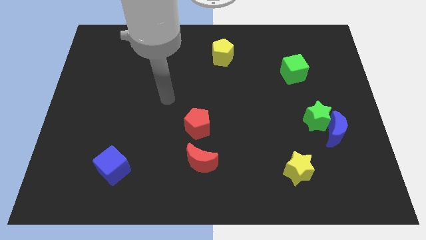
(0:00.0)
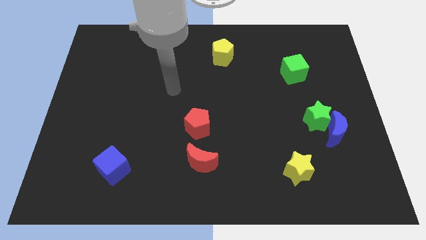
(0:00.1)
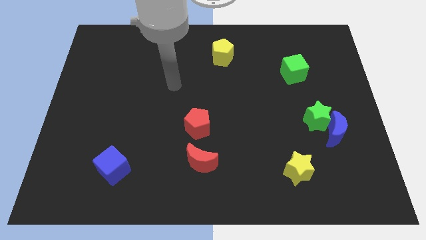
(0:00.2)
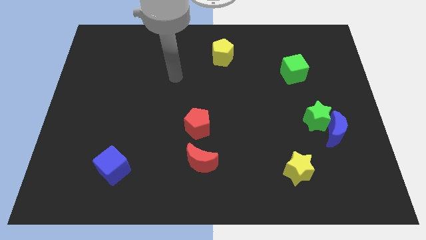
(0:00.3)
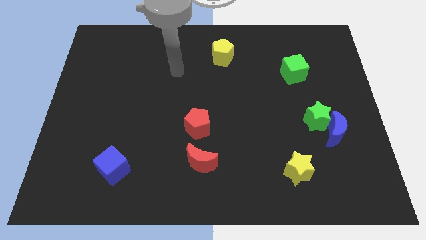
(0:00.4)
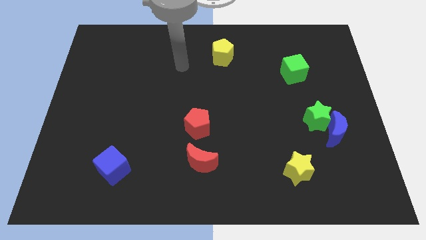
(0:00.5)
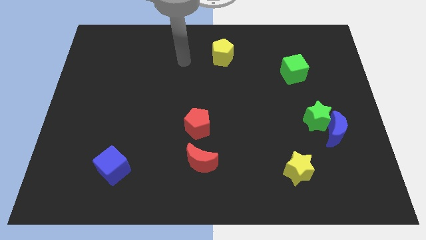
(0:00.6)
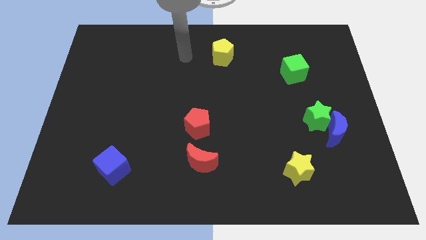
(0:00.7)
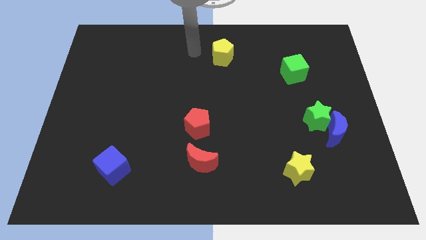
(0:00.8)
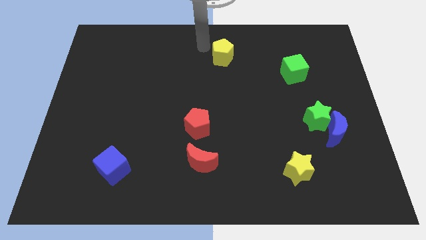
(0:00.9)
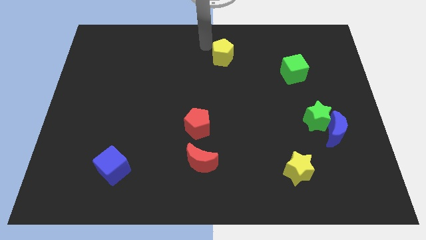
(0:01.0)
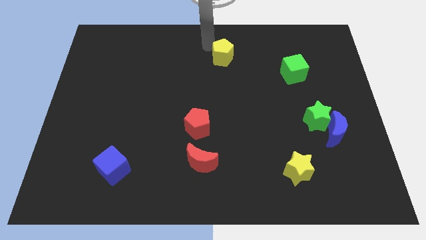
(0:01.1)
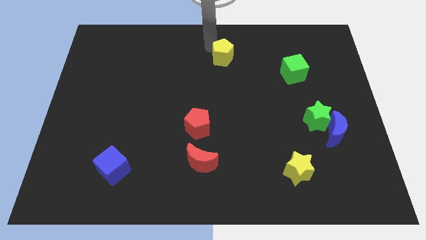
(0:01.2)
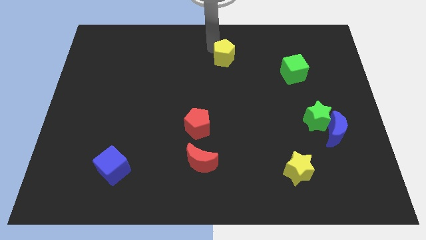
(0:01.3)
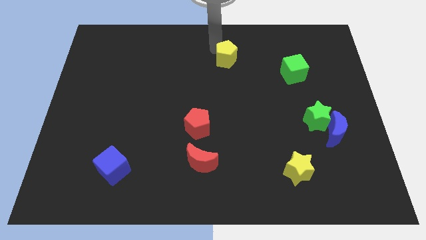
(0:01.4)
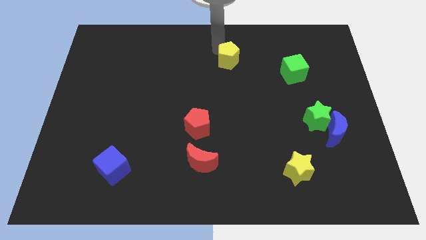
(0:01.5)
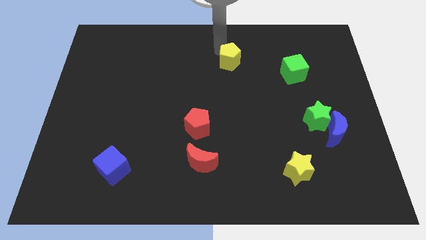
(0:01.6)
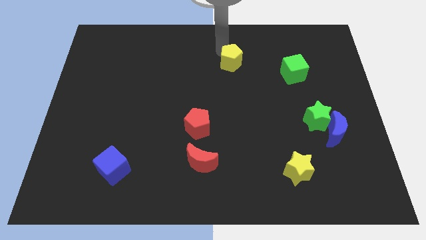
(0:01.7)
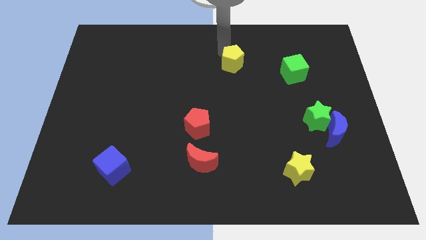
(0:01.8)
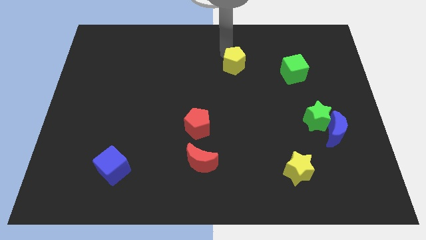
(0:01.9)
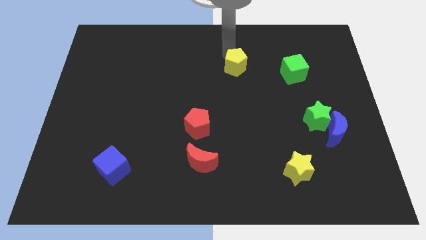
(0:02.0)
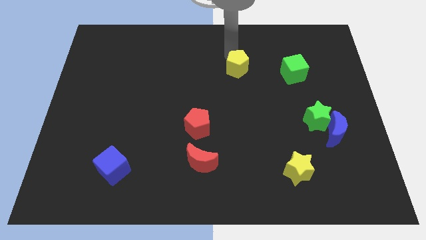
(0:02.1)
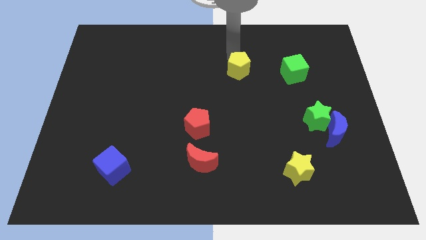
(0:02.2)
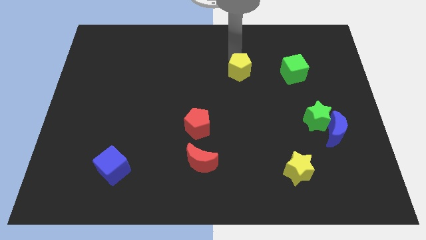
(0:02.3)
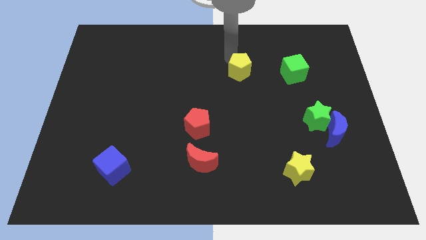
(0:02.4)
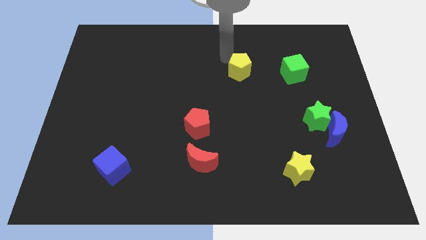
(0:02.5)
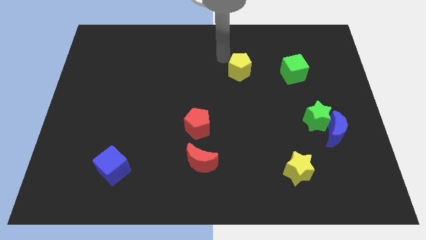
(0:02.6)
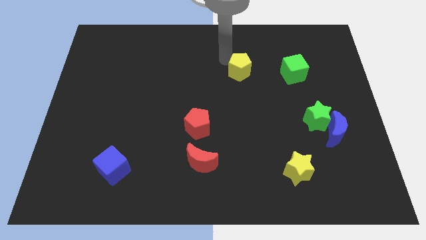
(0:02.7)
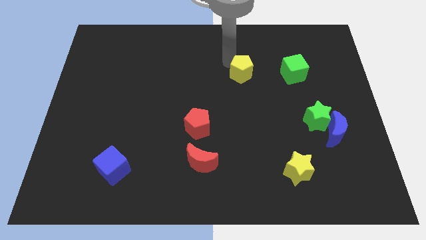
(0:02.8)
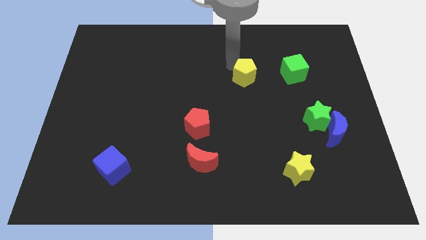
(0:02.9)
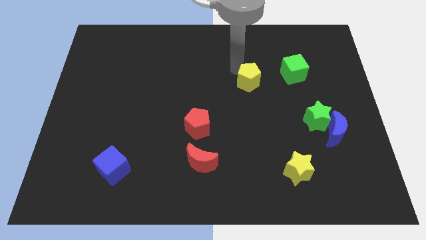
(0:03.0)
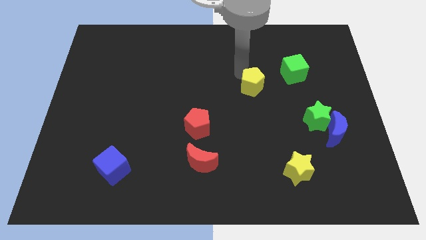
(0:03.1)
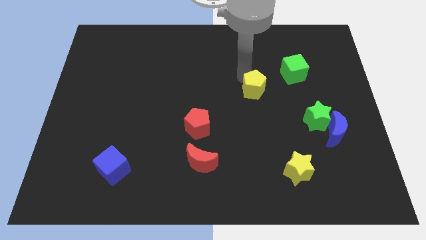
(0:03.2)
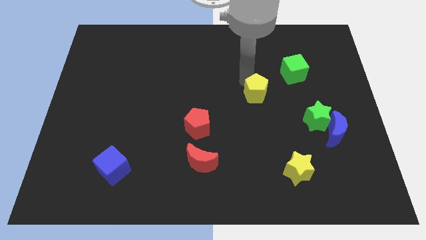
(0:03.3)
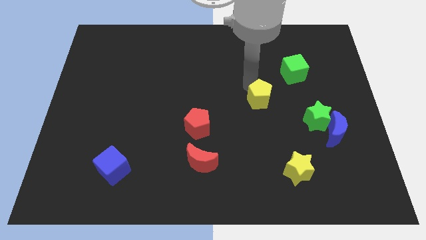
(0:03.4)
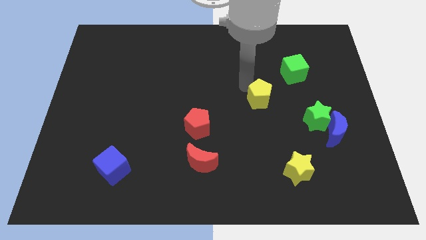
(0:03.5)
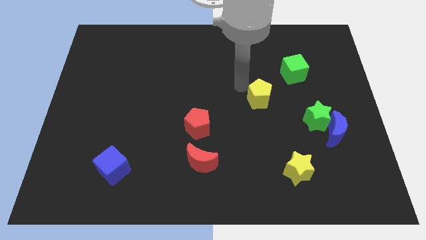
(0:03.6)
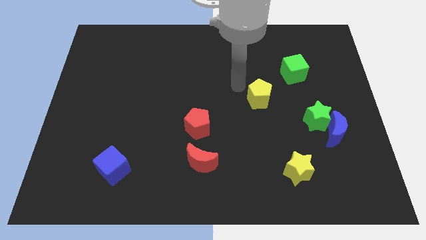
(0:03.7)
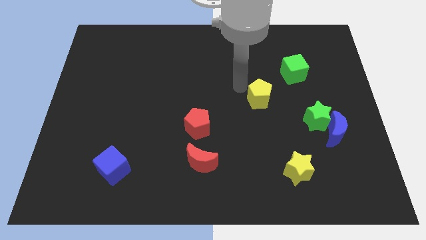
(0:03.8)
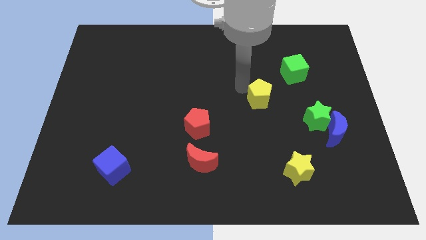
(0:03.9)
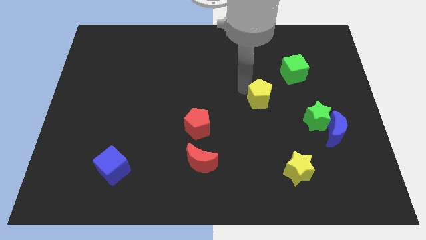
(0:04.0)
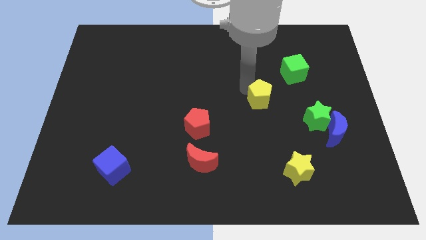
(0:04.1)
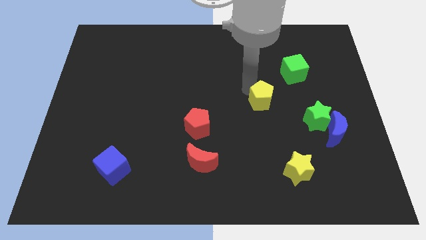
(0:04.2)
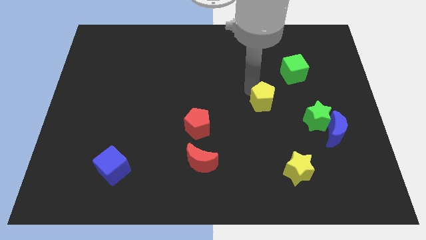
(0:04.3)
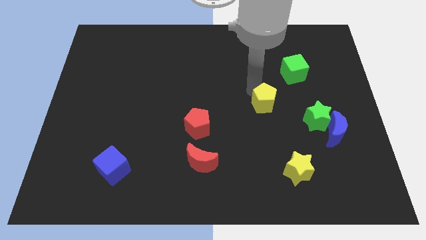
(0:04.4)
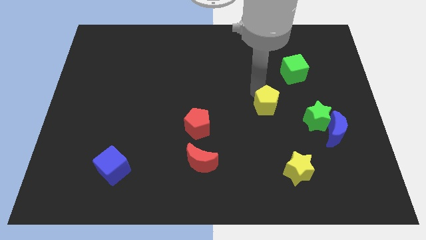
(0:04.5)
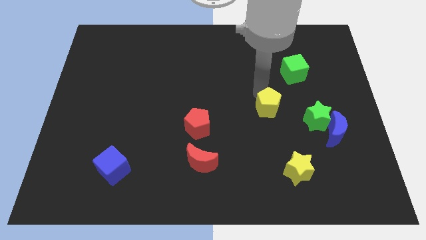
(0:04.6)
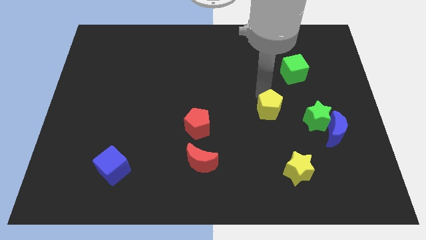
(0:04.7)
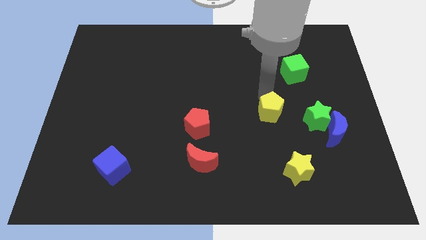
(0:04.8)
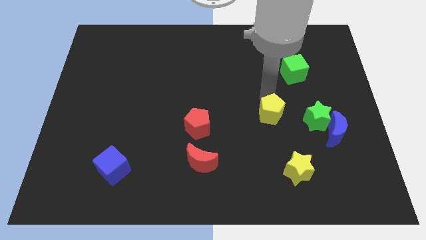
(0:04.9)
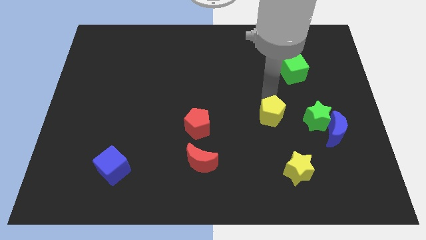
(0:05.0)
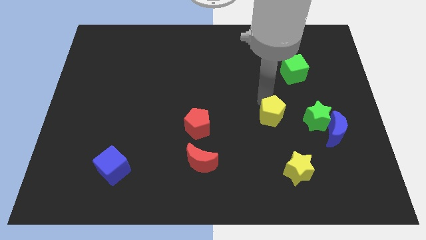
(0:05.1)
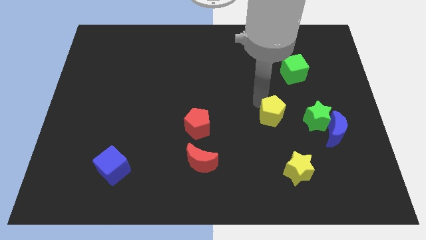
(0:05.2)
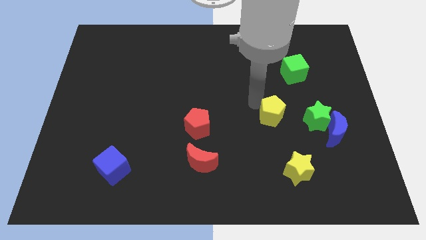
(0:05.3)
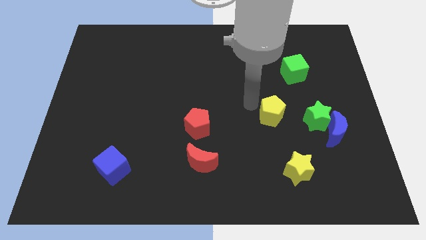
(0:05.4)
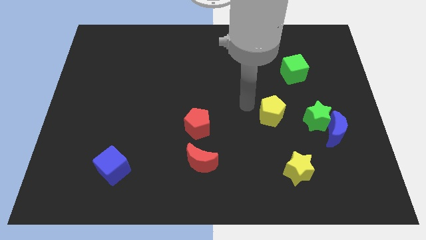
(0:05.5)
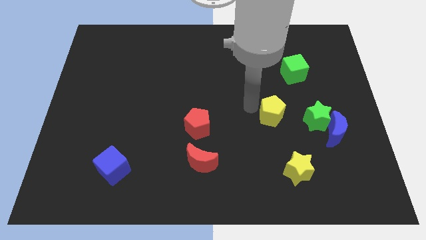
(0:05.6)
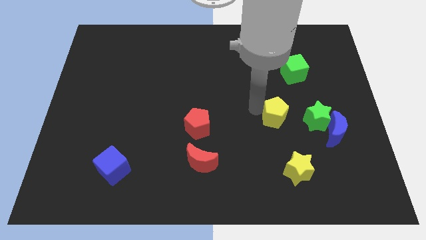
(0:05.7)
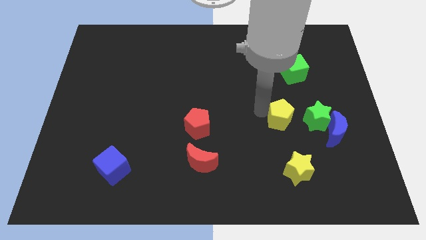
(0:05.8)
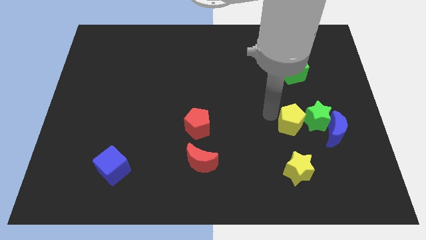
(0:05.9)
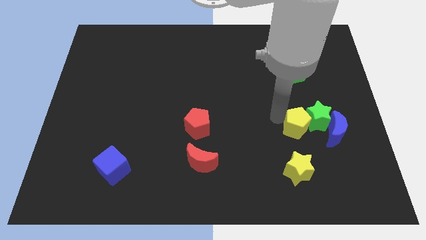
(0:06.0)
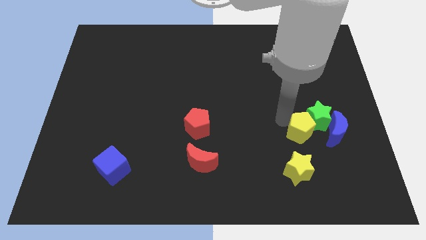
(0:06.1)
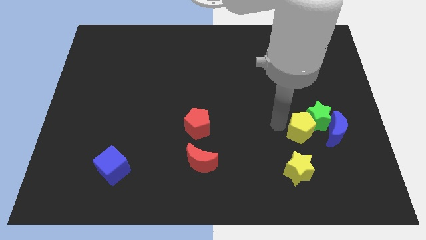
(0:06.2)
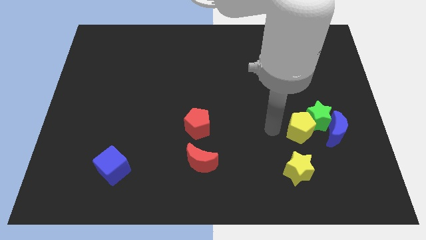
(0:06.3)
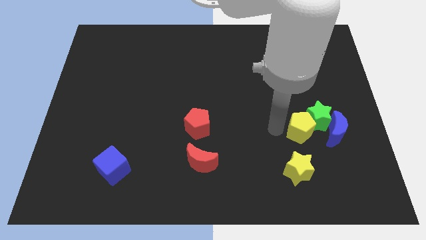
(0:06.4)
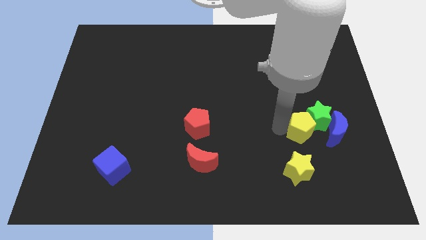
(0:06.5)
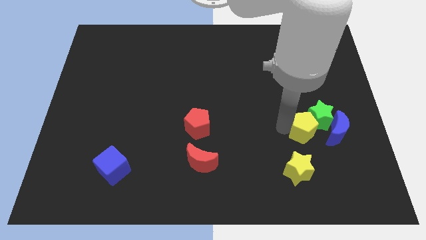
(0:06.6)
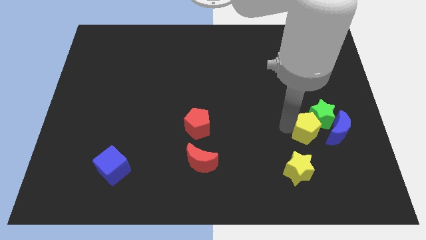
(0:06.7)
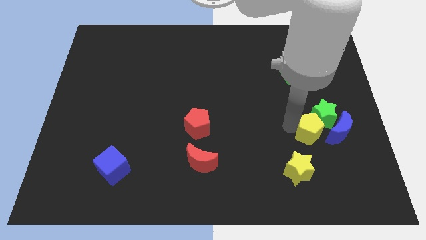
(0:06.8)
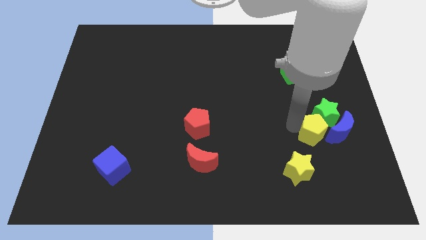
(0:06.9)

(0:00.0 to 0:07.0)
slide the yellow pentagon close to the blue moon
